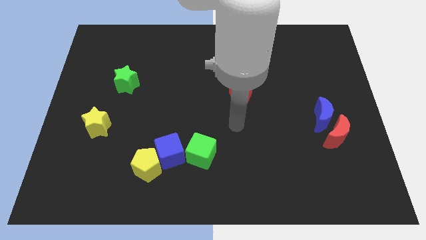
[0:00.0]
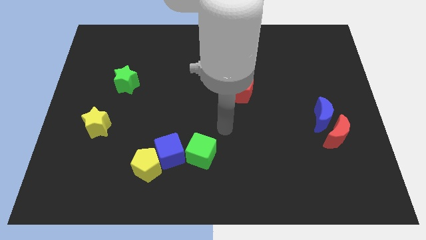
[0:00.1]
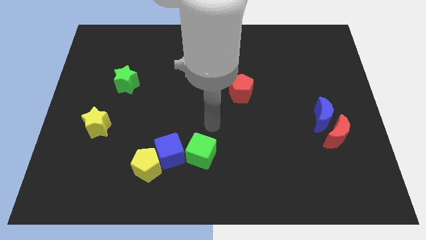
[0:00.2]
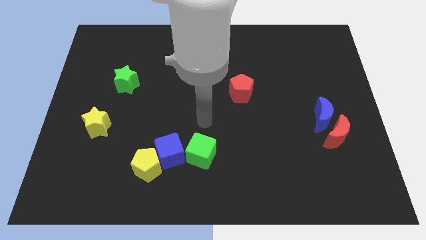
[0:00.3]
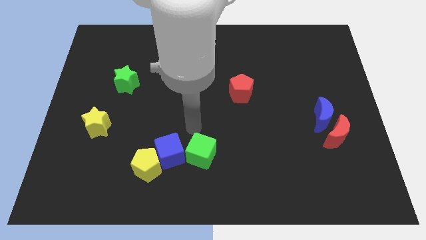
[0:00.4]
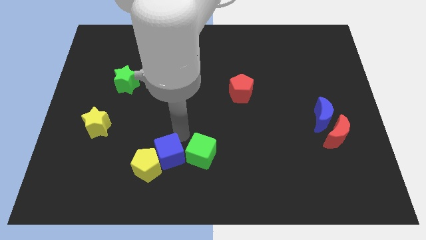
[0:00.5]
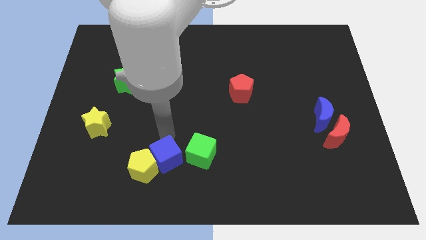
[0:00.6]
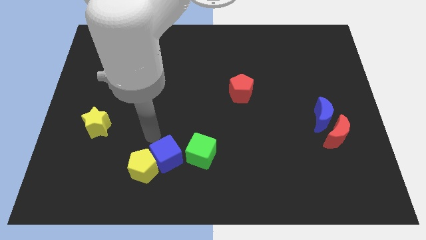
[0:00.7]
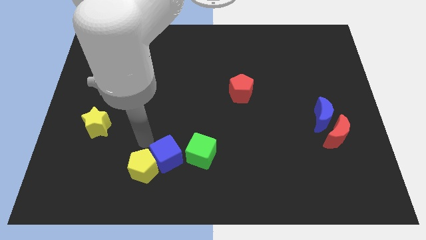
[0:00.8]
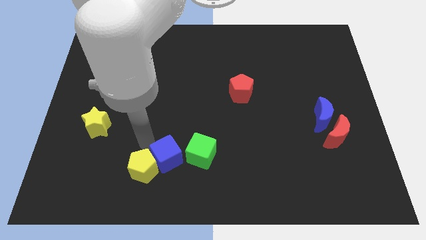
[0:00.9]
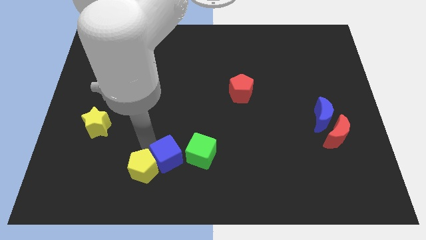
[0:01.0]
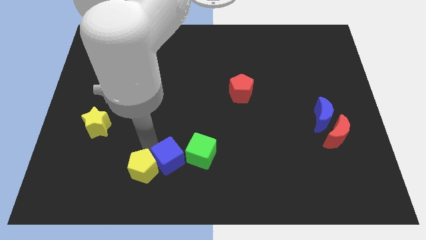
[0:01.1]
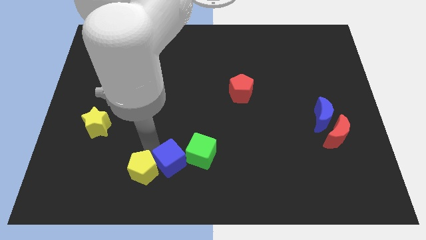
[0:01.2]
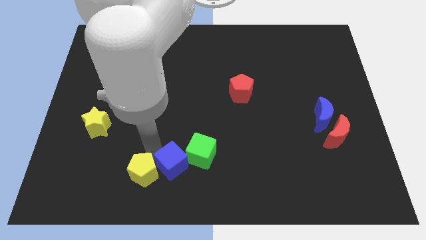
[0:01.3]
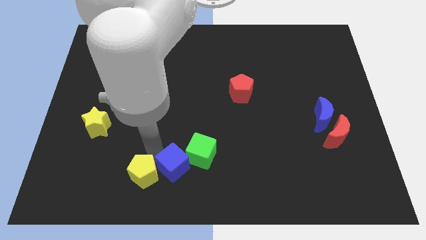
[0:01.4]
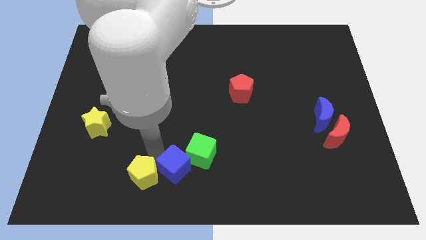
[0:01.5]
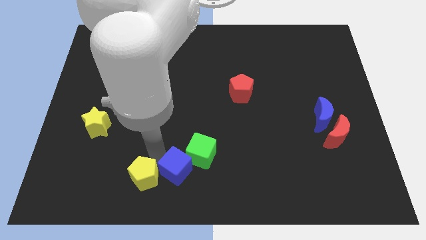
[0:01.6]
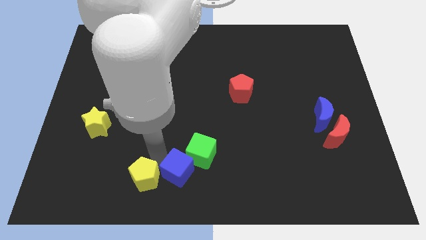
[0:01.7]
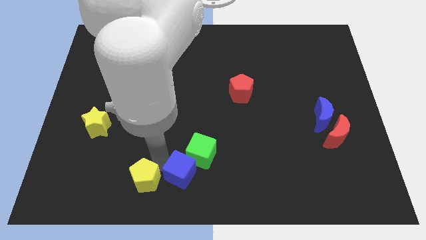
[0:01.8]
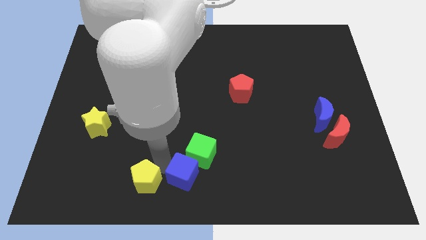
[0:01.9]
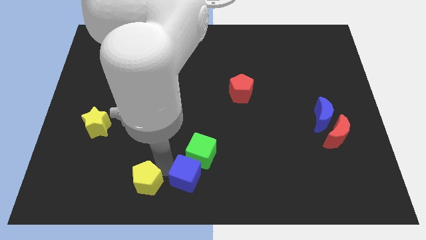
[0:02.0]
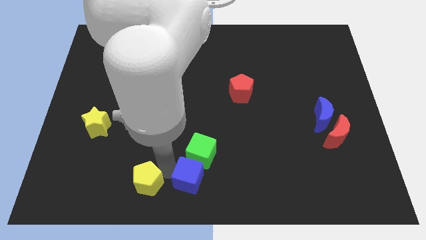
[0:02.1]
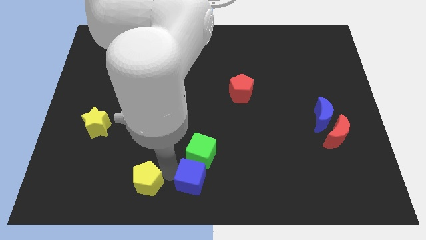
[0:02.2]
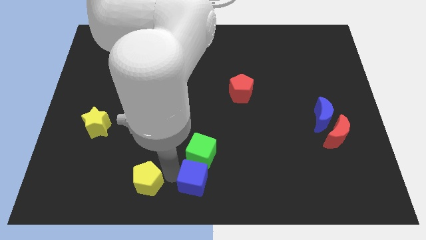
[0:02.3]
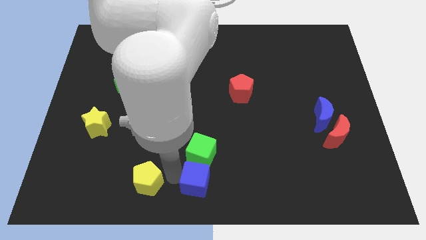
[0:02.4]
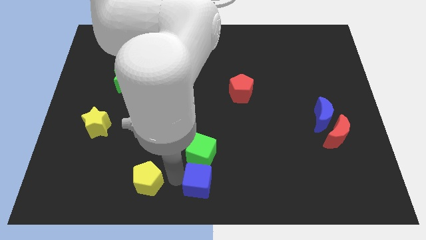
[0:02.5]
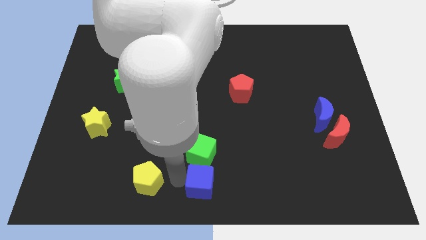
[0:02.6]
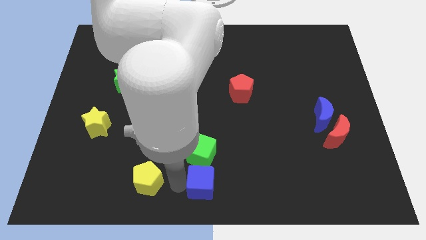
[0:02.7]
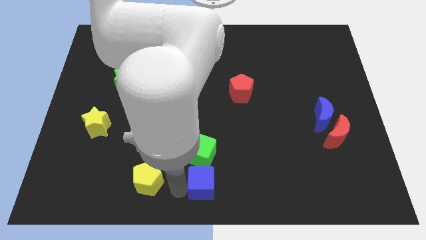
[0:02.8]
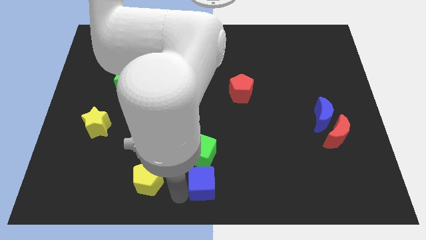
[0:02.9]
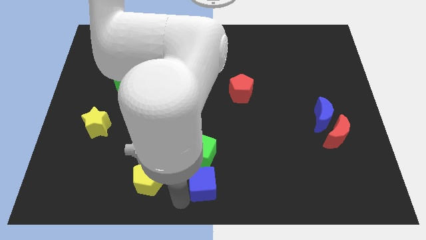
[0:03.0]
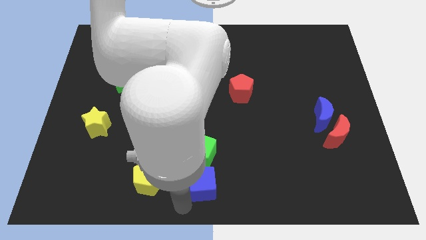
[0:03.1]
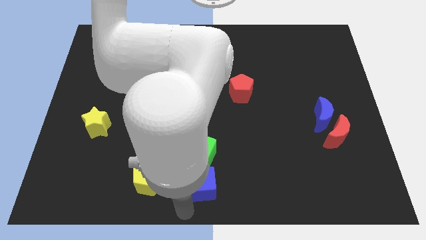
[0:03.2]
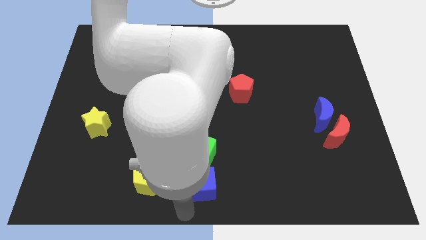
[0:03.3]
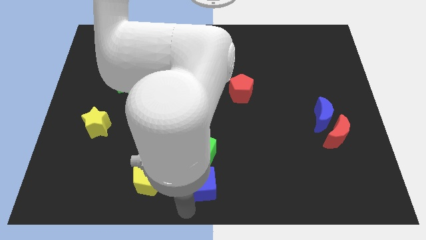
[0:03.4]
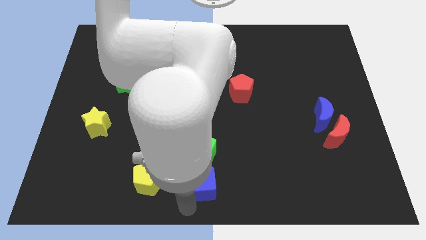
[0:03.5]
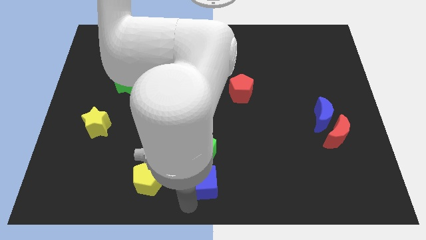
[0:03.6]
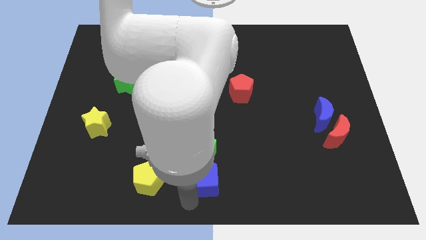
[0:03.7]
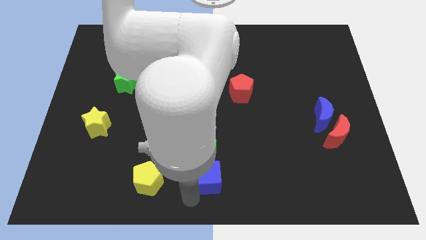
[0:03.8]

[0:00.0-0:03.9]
slightly push the blue cube right

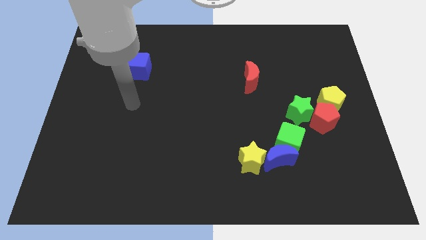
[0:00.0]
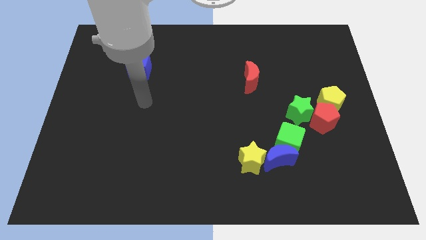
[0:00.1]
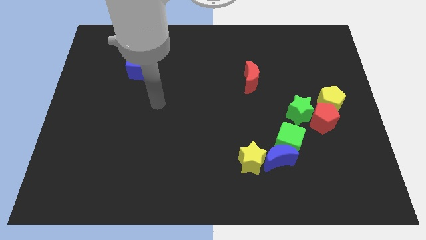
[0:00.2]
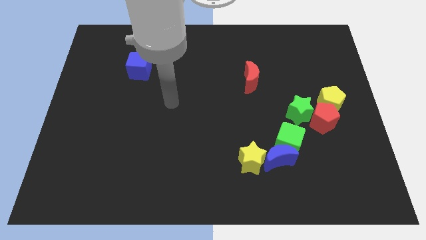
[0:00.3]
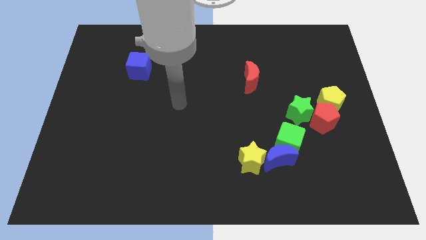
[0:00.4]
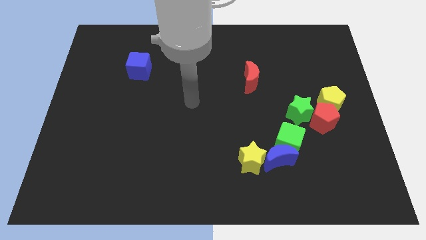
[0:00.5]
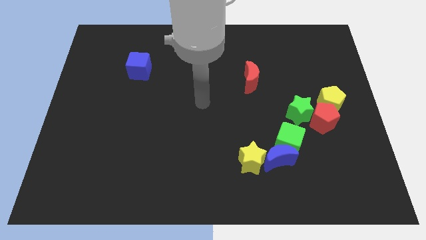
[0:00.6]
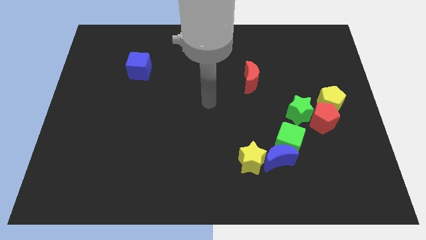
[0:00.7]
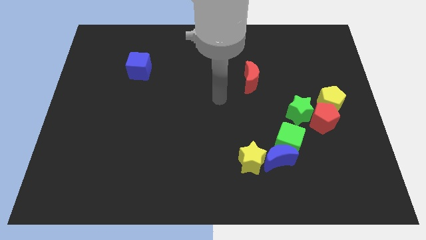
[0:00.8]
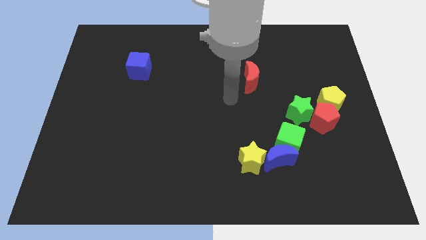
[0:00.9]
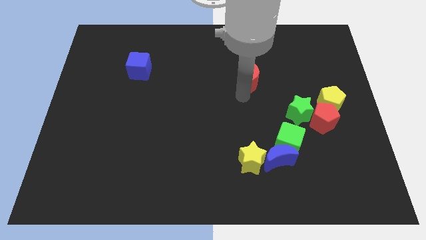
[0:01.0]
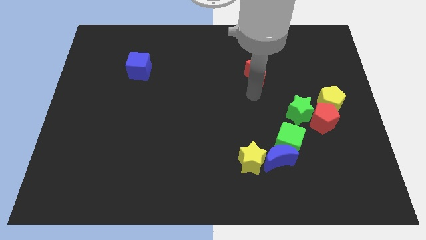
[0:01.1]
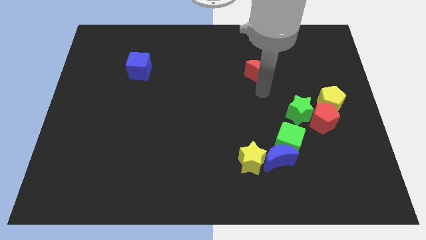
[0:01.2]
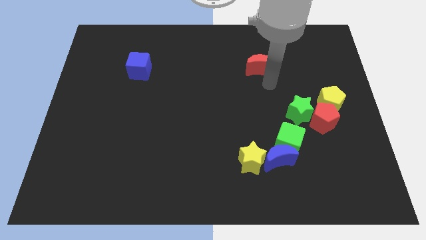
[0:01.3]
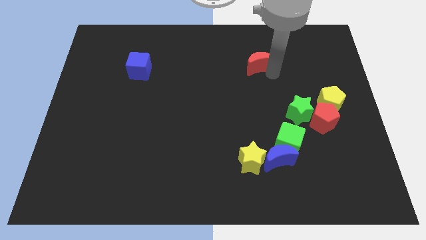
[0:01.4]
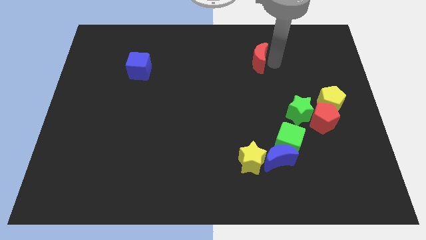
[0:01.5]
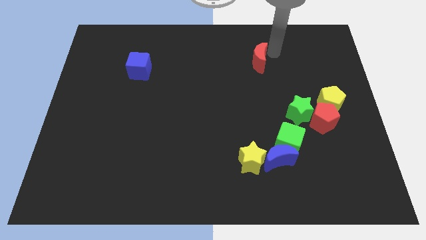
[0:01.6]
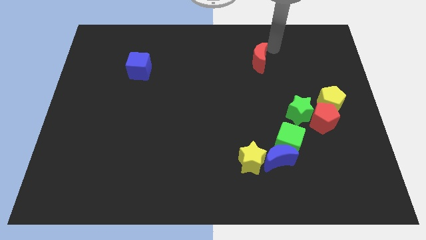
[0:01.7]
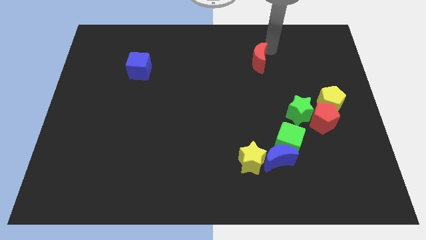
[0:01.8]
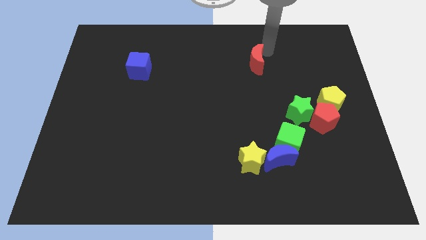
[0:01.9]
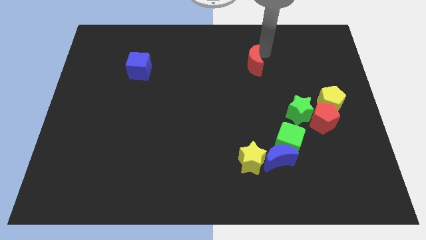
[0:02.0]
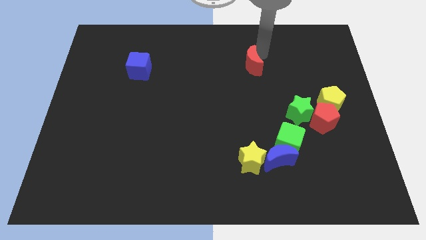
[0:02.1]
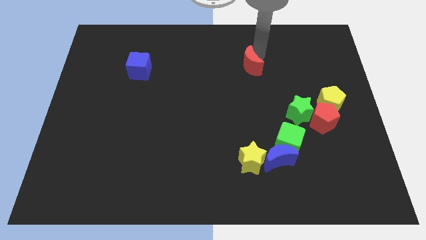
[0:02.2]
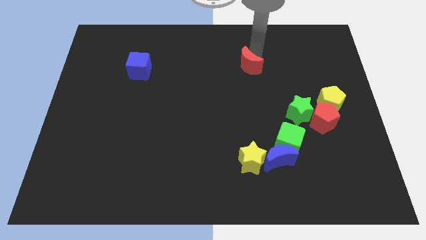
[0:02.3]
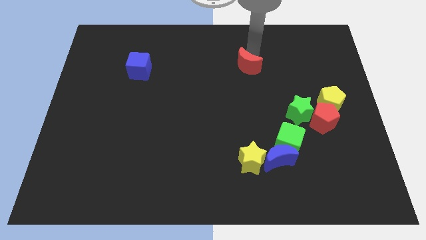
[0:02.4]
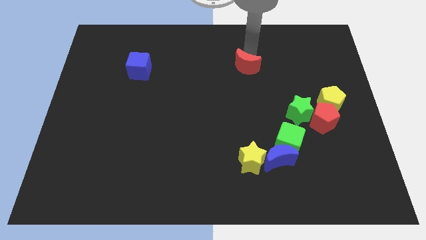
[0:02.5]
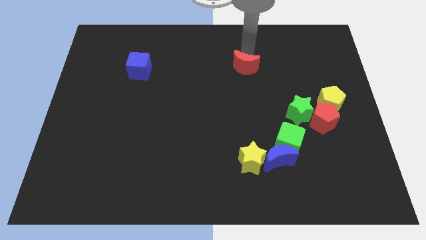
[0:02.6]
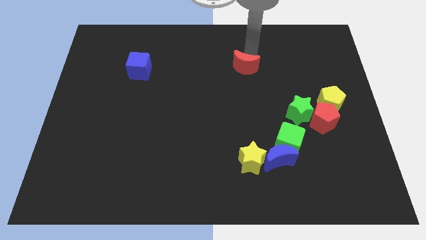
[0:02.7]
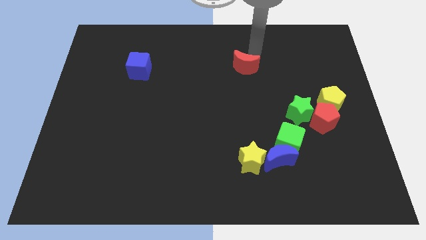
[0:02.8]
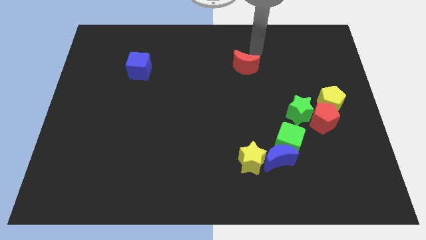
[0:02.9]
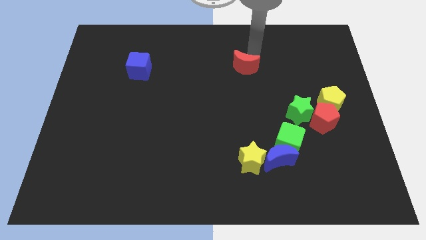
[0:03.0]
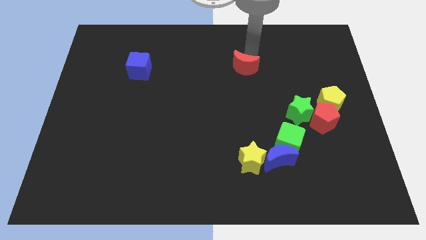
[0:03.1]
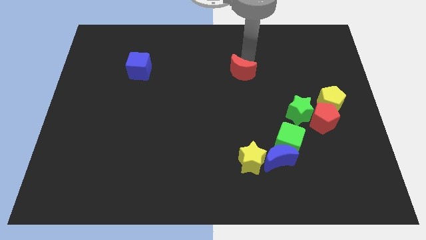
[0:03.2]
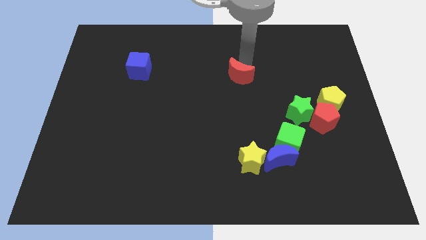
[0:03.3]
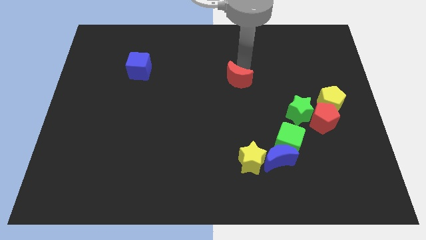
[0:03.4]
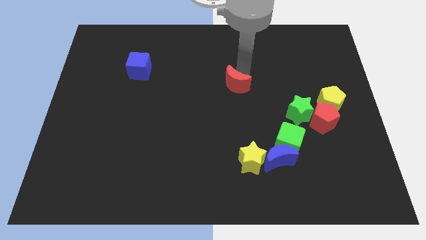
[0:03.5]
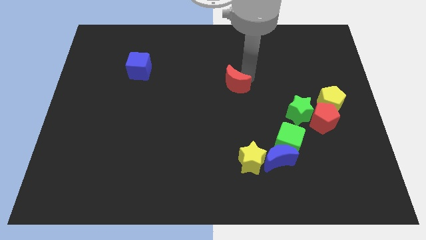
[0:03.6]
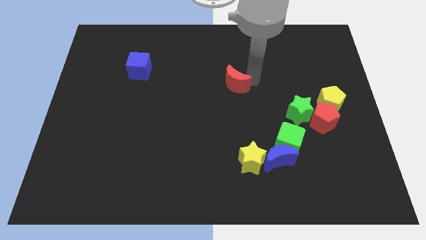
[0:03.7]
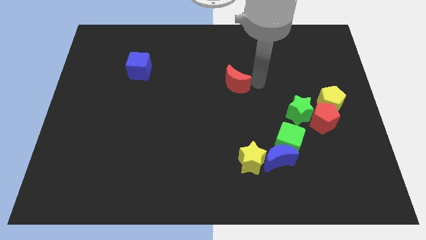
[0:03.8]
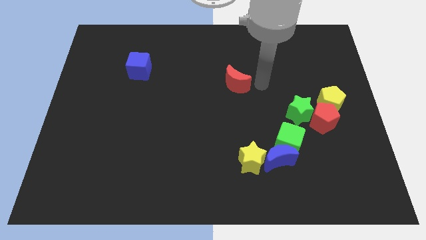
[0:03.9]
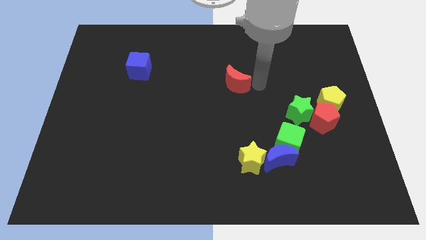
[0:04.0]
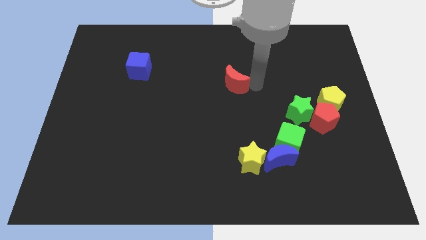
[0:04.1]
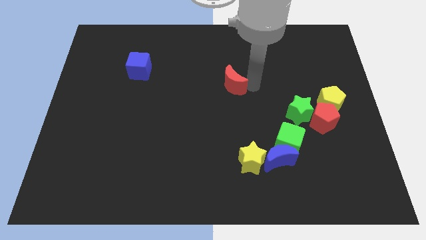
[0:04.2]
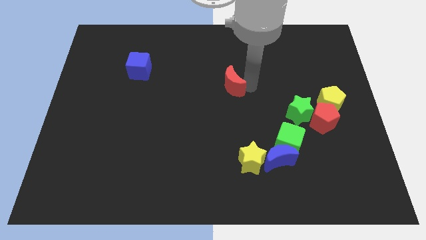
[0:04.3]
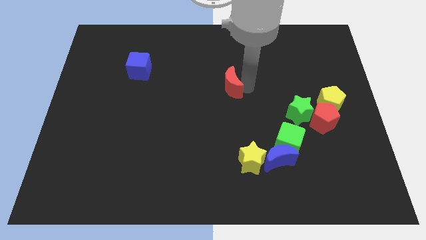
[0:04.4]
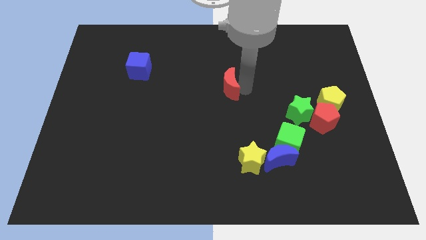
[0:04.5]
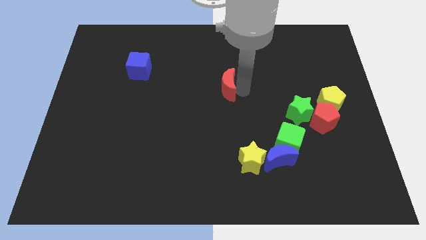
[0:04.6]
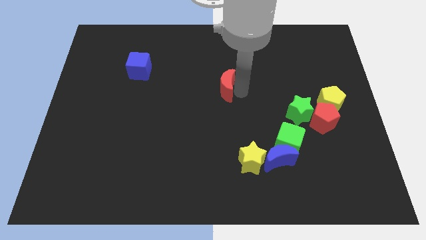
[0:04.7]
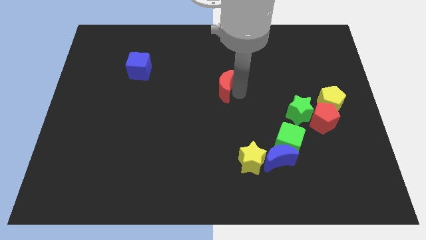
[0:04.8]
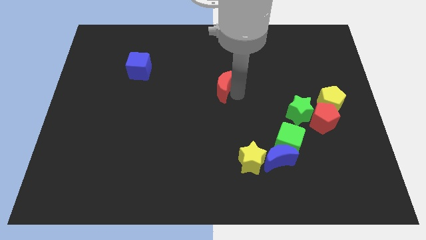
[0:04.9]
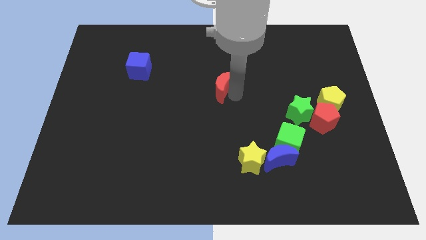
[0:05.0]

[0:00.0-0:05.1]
slightly slide the red moon left
